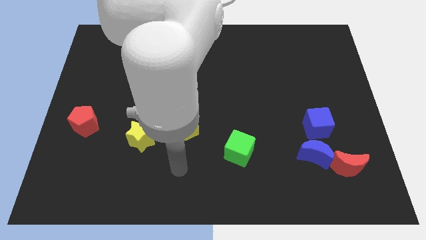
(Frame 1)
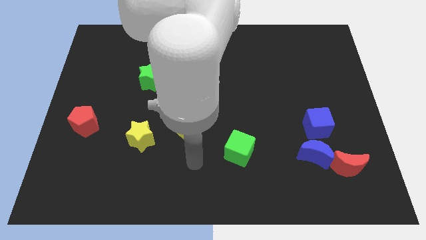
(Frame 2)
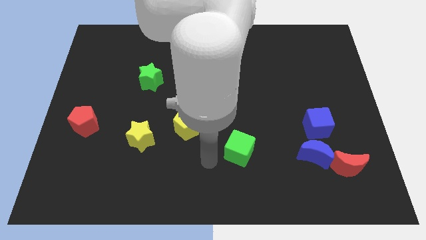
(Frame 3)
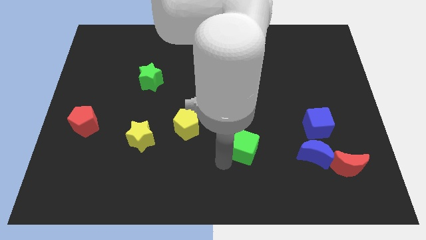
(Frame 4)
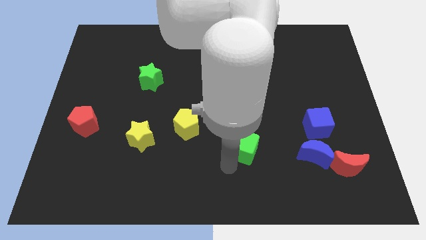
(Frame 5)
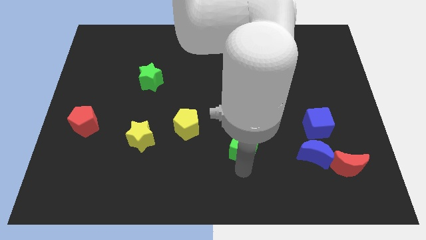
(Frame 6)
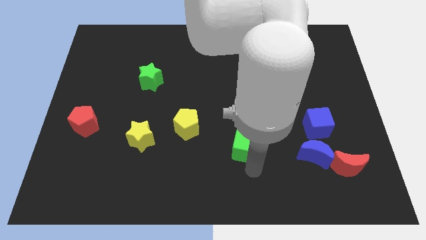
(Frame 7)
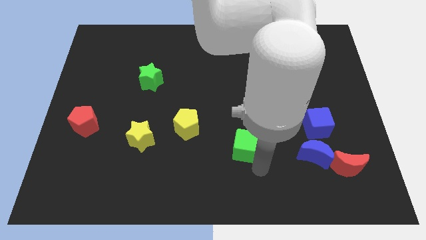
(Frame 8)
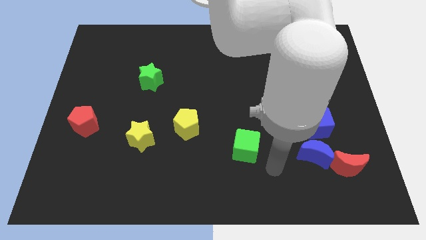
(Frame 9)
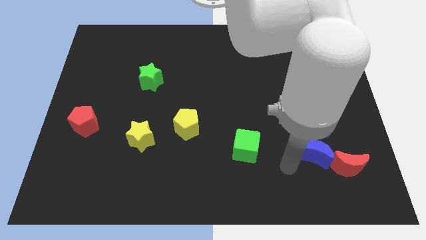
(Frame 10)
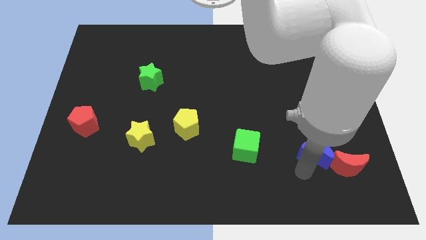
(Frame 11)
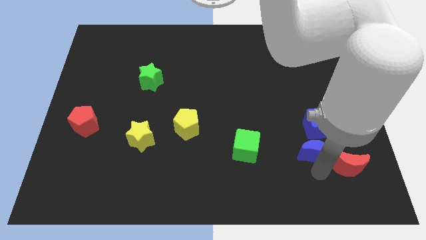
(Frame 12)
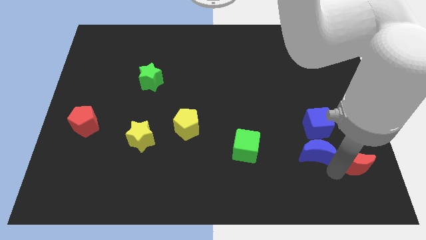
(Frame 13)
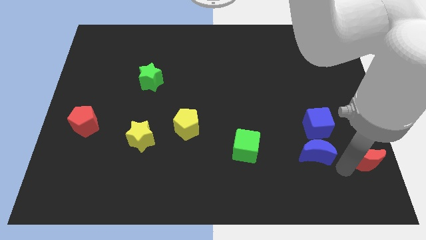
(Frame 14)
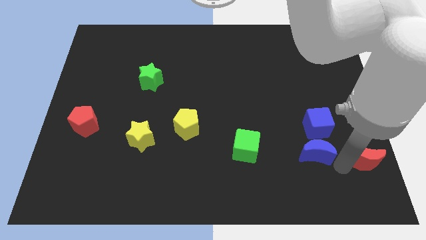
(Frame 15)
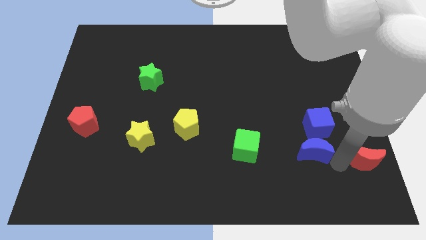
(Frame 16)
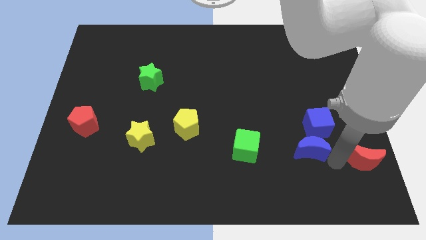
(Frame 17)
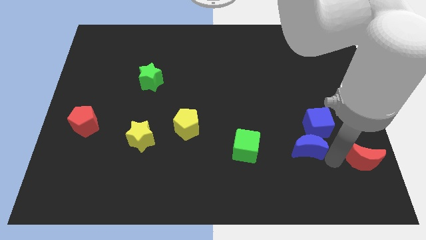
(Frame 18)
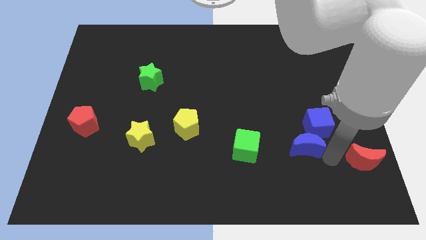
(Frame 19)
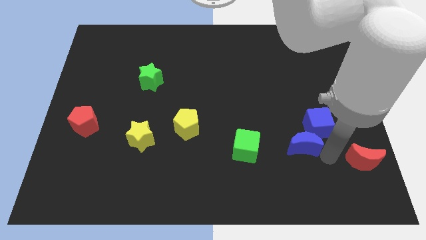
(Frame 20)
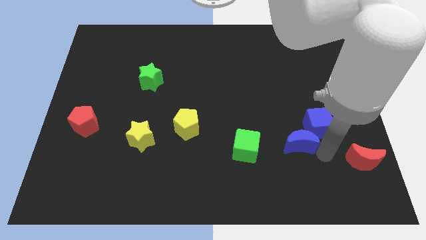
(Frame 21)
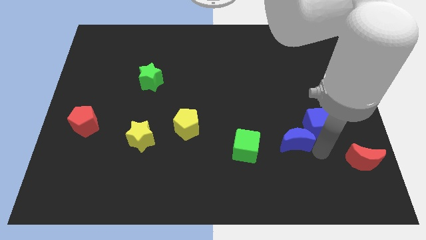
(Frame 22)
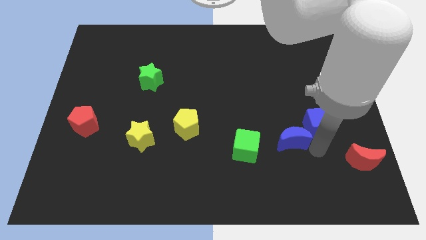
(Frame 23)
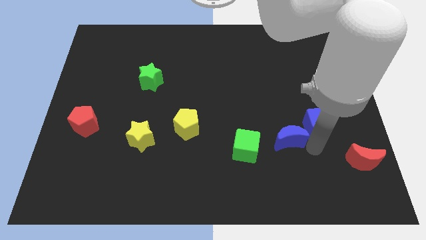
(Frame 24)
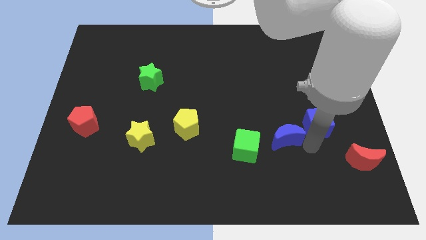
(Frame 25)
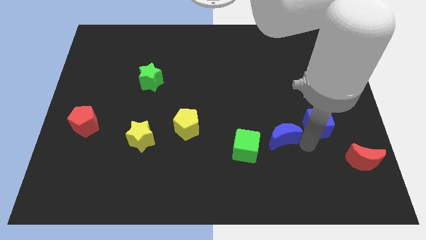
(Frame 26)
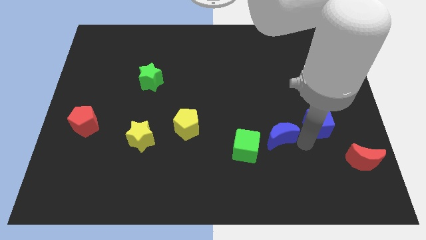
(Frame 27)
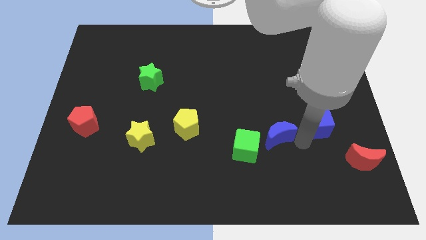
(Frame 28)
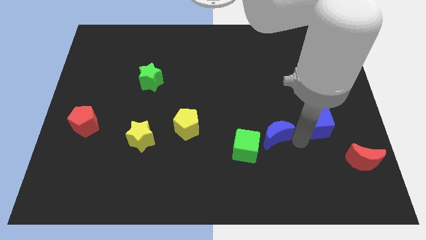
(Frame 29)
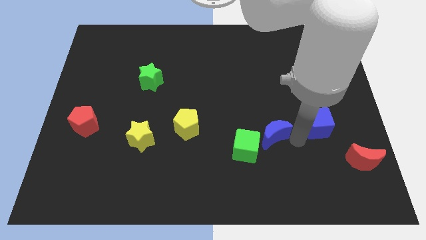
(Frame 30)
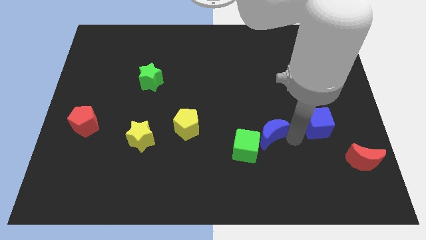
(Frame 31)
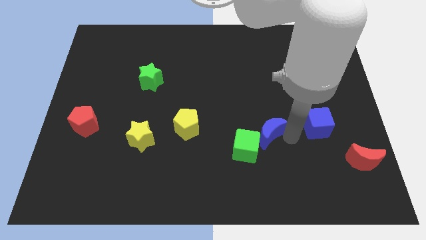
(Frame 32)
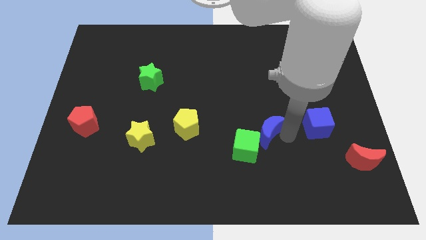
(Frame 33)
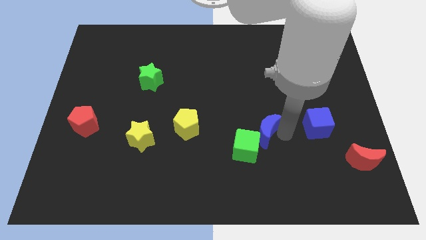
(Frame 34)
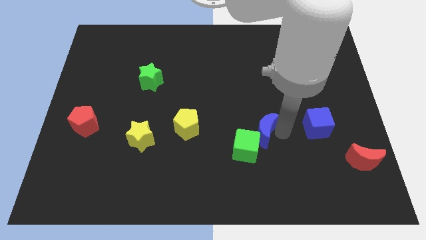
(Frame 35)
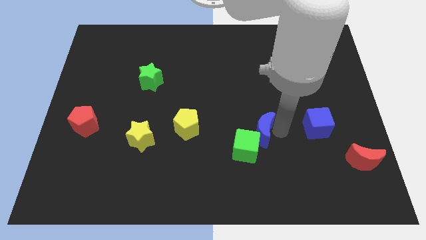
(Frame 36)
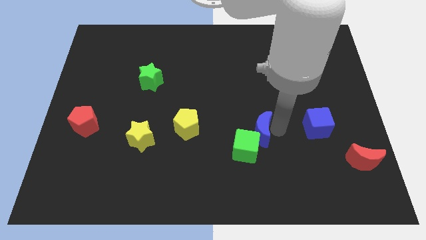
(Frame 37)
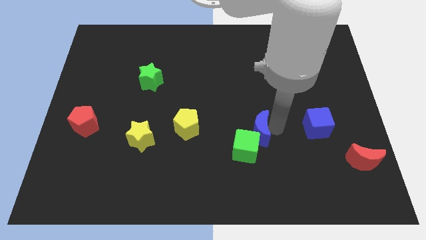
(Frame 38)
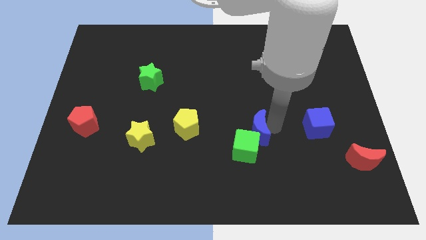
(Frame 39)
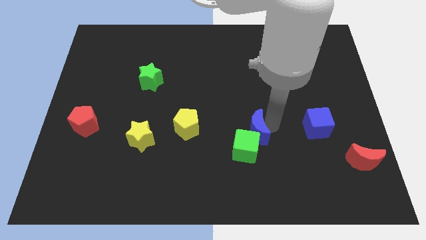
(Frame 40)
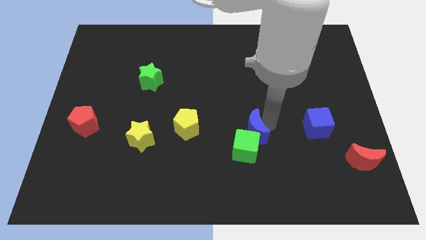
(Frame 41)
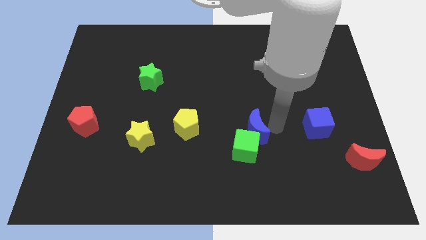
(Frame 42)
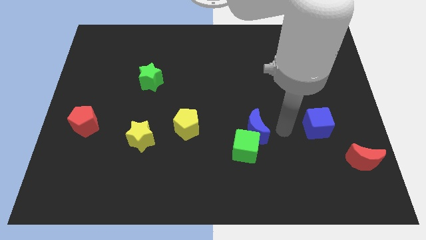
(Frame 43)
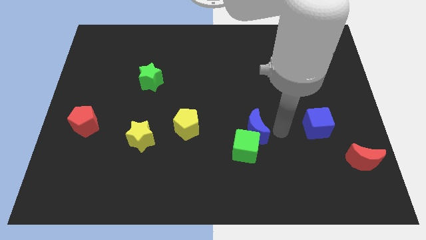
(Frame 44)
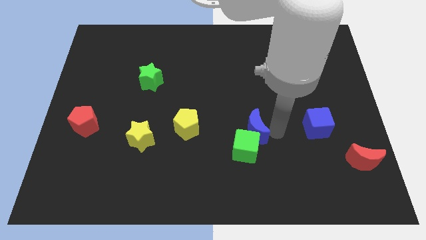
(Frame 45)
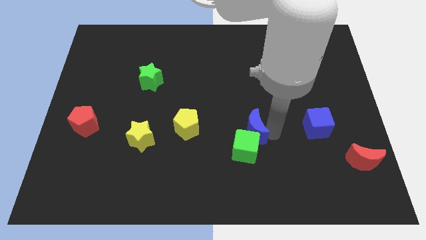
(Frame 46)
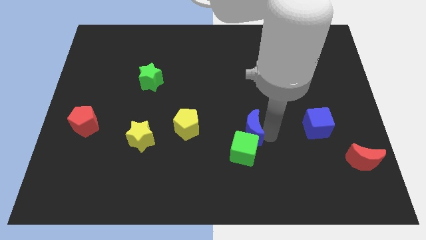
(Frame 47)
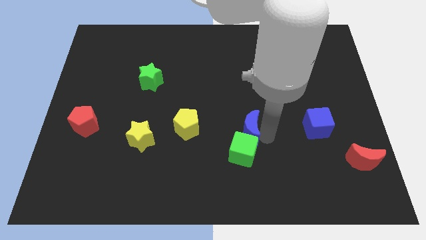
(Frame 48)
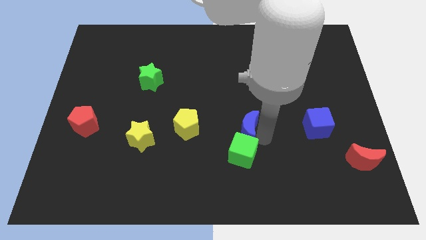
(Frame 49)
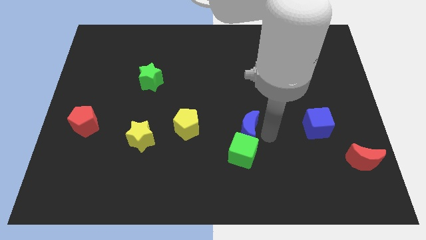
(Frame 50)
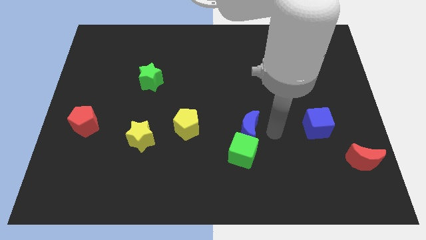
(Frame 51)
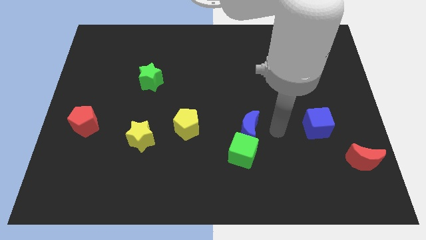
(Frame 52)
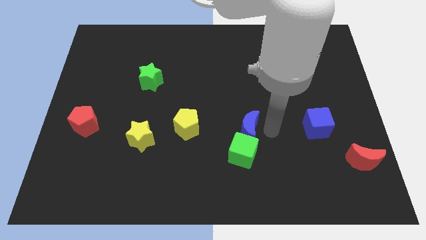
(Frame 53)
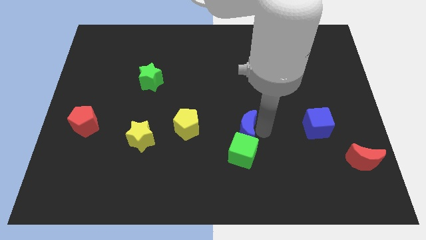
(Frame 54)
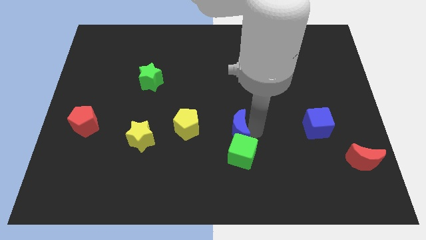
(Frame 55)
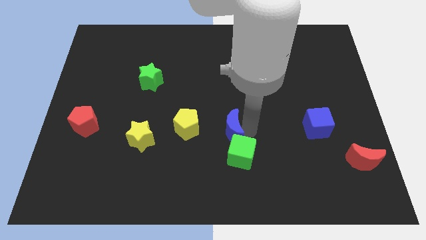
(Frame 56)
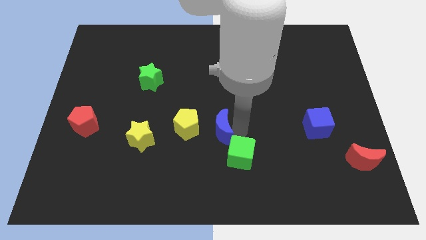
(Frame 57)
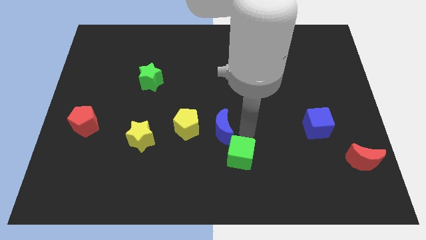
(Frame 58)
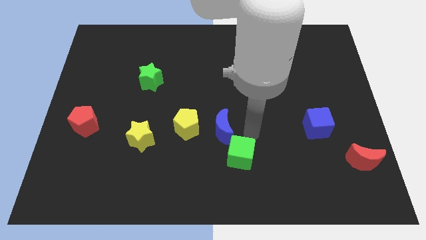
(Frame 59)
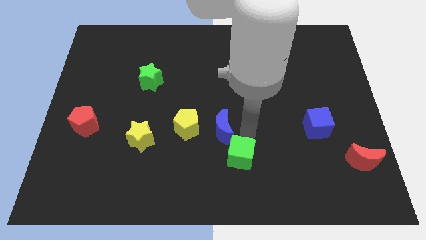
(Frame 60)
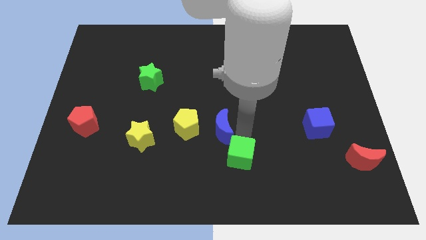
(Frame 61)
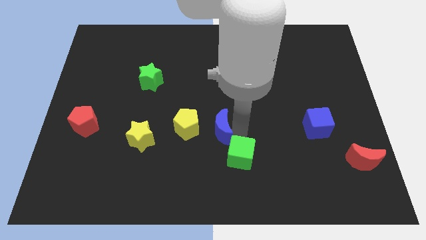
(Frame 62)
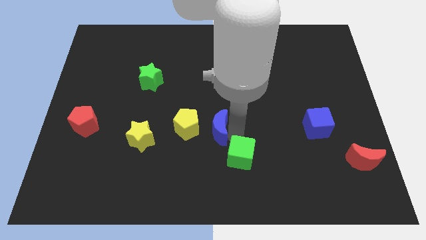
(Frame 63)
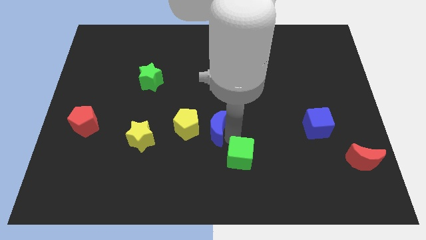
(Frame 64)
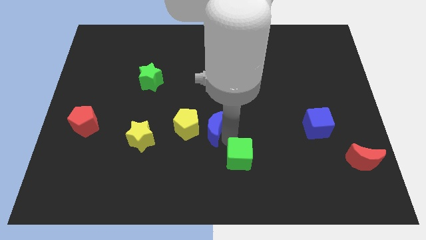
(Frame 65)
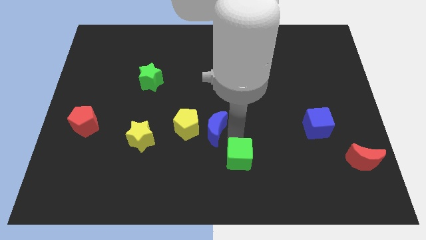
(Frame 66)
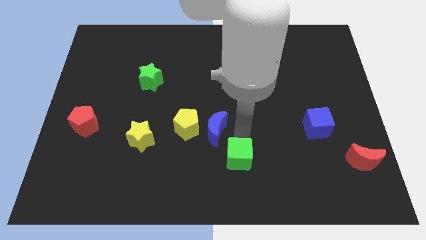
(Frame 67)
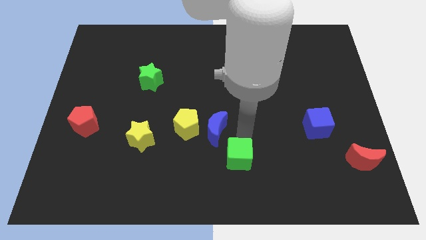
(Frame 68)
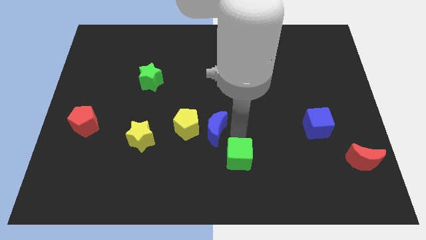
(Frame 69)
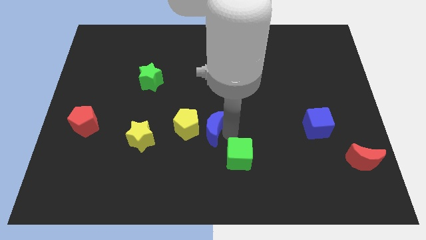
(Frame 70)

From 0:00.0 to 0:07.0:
put the blue moon next to the yellow pentagon
